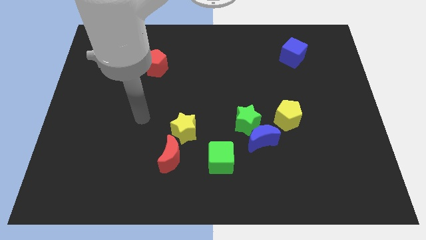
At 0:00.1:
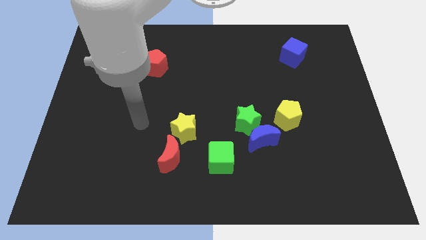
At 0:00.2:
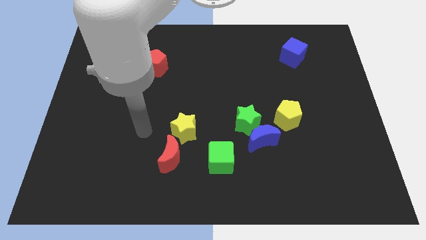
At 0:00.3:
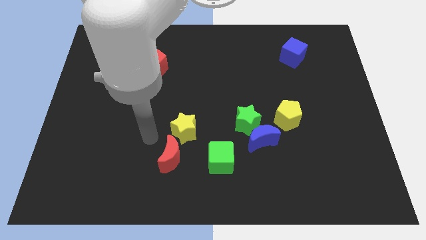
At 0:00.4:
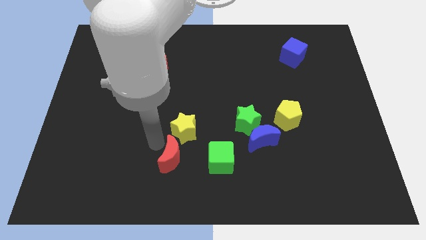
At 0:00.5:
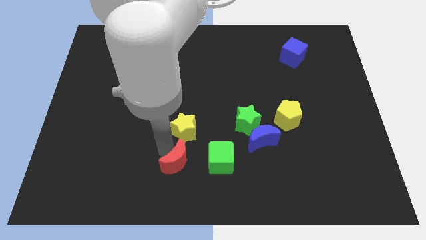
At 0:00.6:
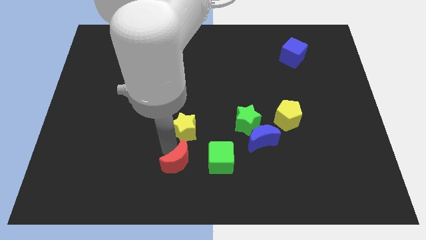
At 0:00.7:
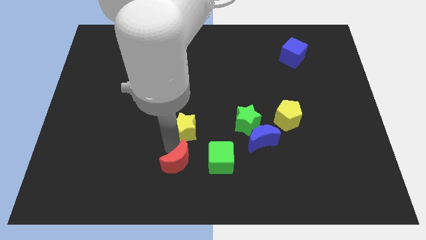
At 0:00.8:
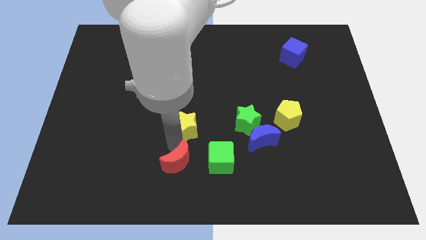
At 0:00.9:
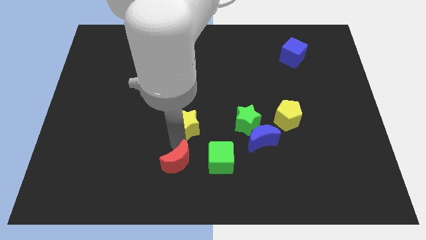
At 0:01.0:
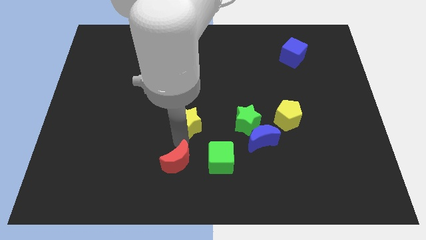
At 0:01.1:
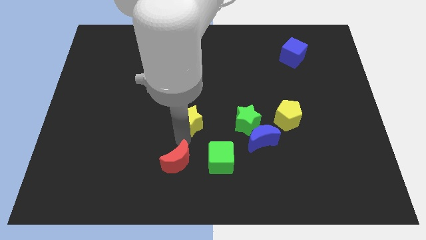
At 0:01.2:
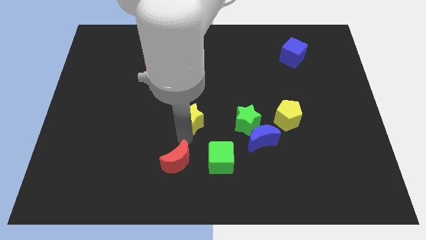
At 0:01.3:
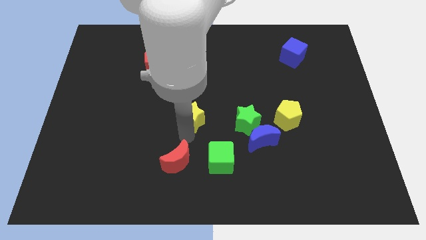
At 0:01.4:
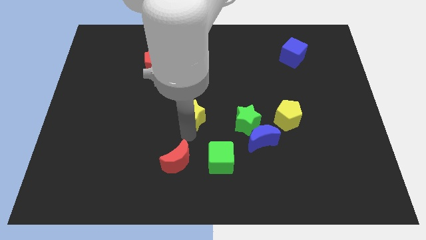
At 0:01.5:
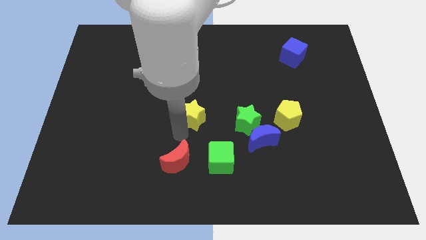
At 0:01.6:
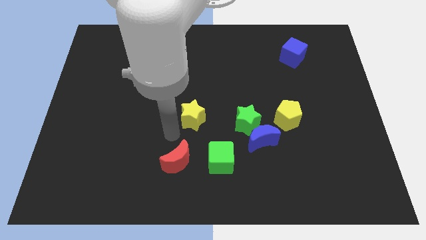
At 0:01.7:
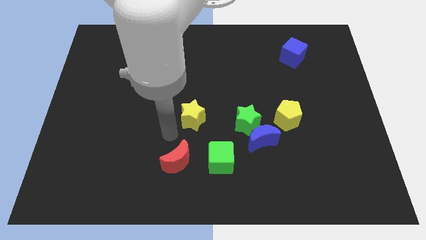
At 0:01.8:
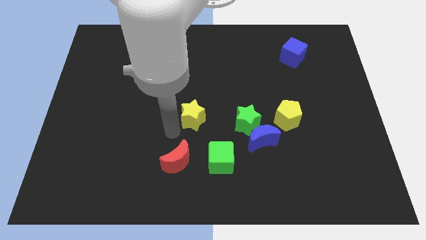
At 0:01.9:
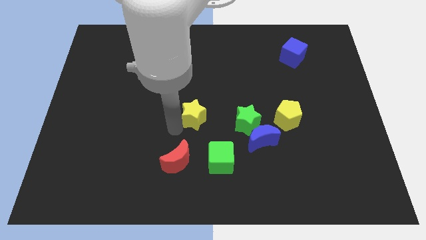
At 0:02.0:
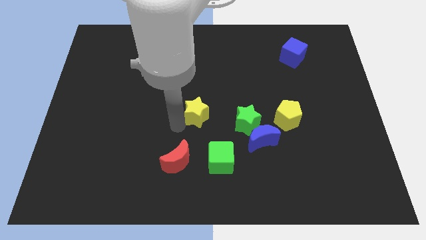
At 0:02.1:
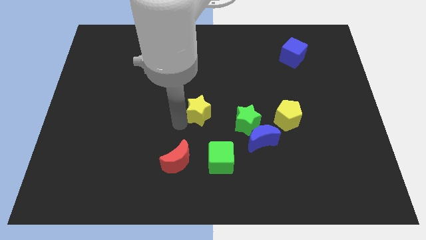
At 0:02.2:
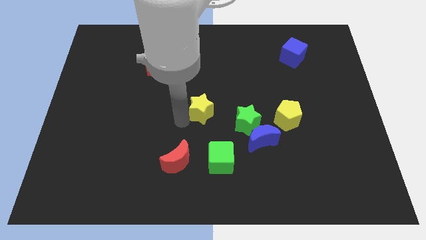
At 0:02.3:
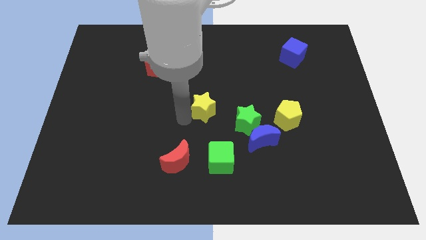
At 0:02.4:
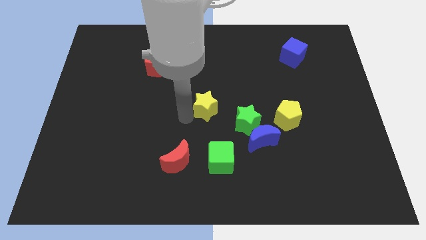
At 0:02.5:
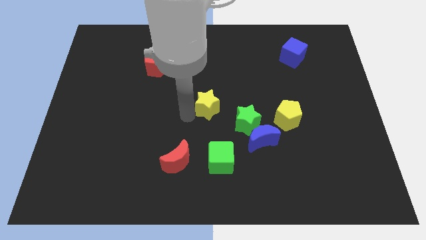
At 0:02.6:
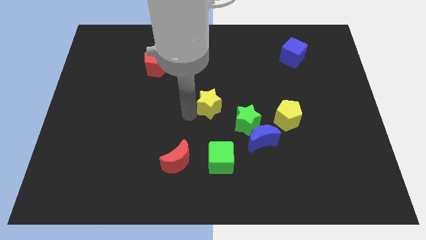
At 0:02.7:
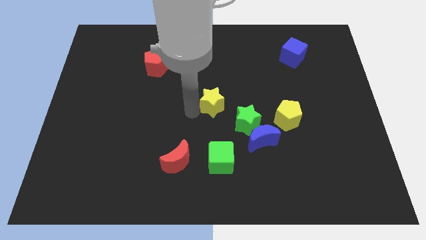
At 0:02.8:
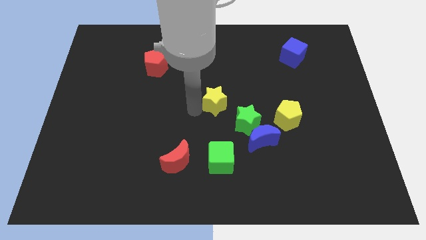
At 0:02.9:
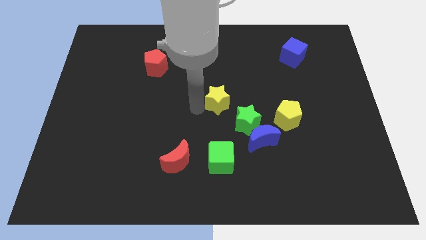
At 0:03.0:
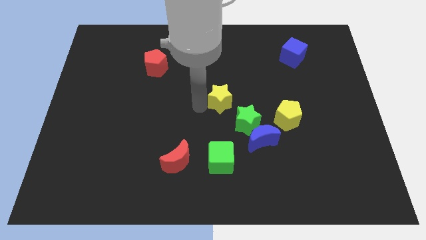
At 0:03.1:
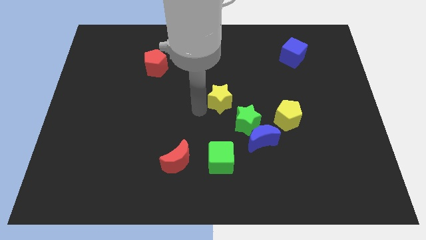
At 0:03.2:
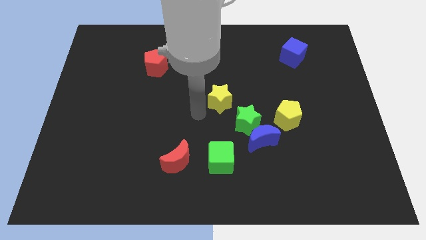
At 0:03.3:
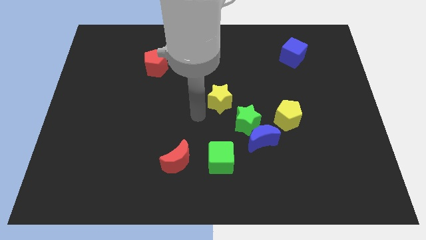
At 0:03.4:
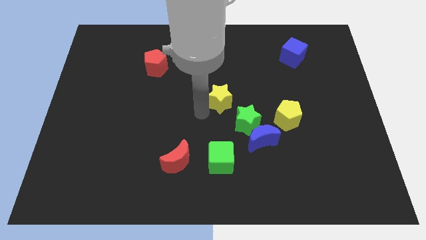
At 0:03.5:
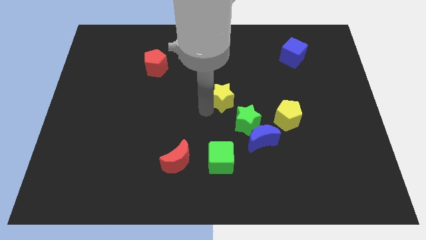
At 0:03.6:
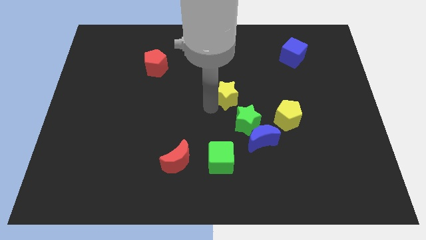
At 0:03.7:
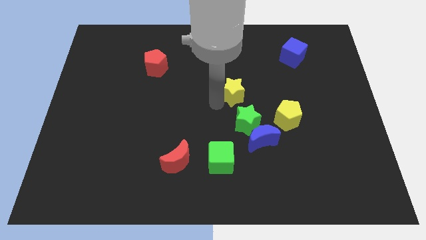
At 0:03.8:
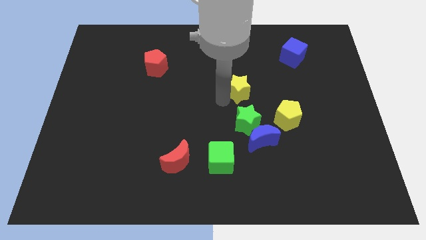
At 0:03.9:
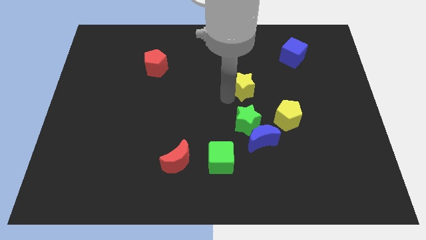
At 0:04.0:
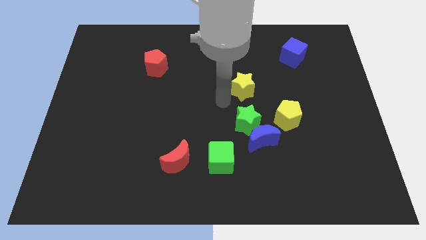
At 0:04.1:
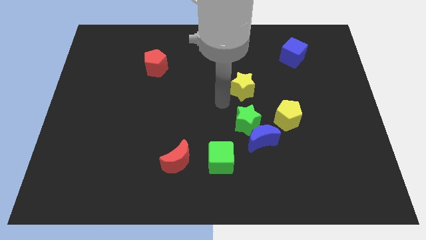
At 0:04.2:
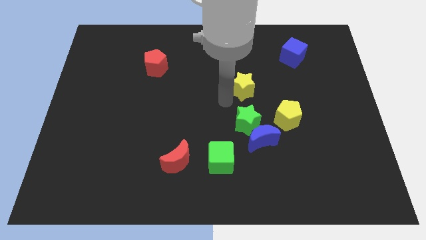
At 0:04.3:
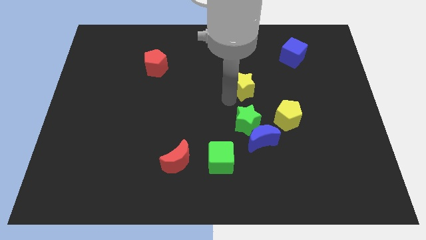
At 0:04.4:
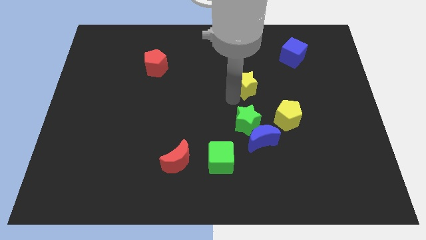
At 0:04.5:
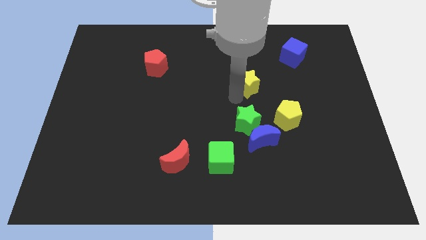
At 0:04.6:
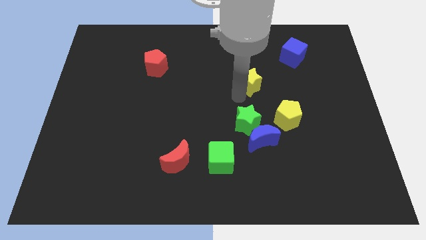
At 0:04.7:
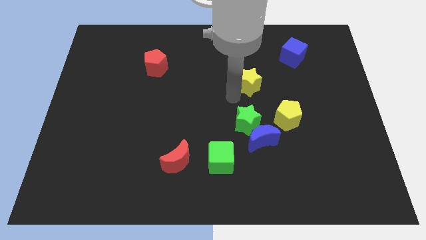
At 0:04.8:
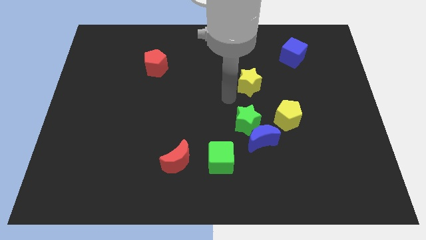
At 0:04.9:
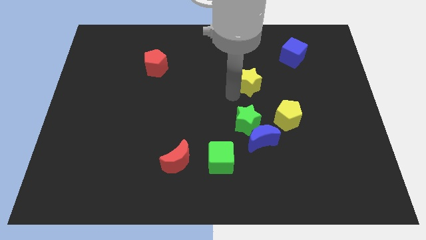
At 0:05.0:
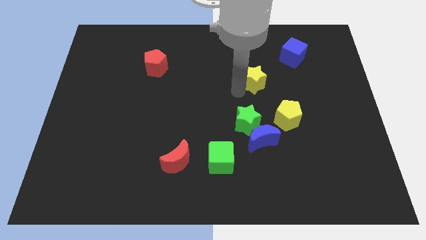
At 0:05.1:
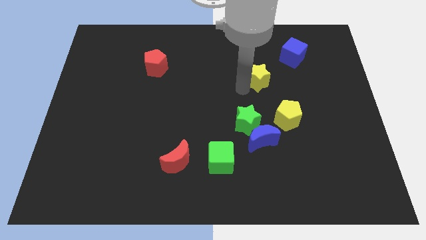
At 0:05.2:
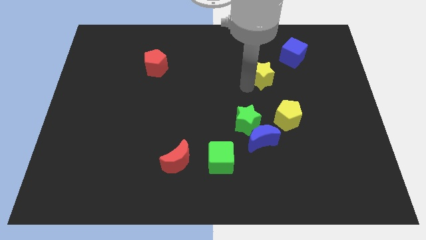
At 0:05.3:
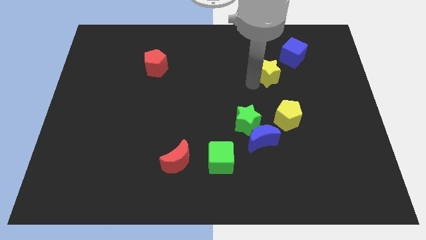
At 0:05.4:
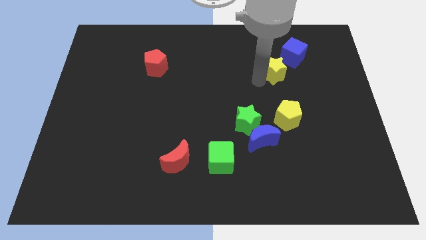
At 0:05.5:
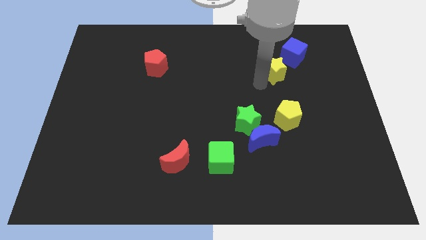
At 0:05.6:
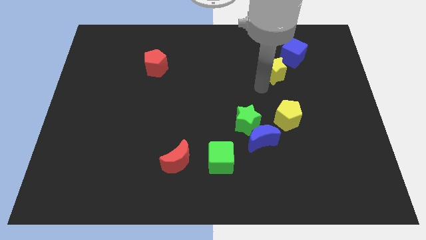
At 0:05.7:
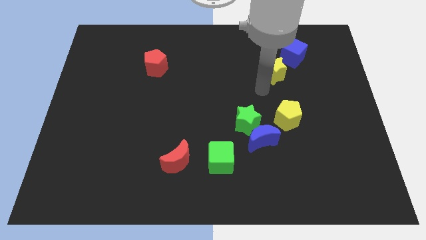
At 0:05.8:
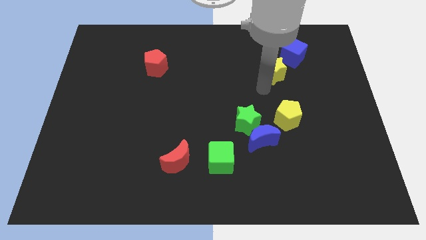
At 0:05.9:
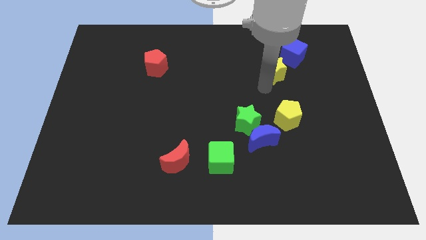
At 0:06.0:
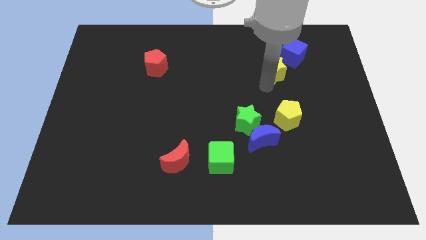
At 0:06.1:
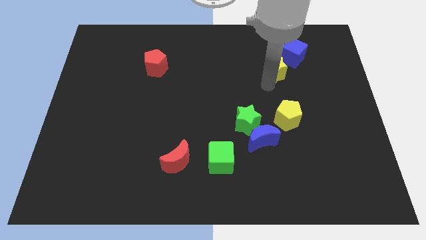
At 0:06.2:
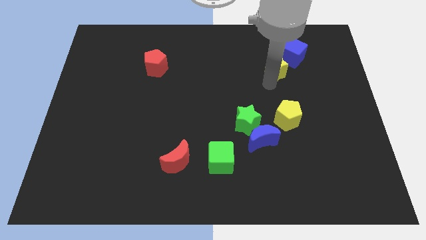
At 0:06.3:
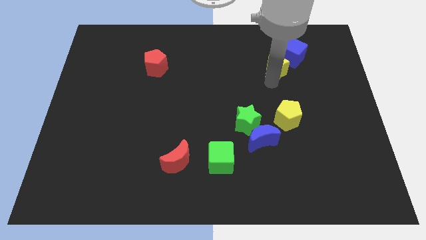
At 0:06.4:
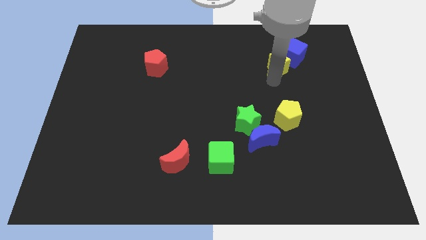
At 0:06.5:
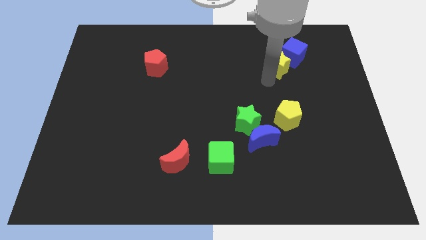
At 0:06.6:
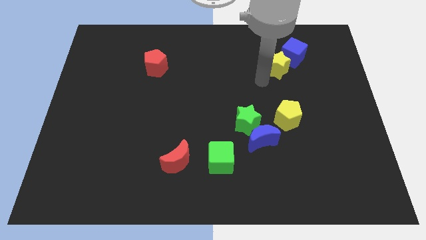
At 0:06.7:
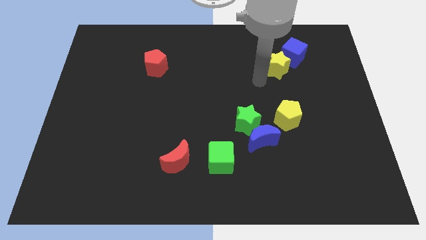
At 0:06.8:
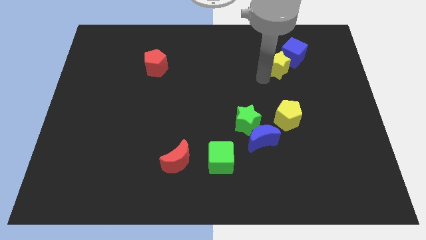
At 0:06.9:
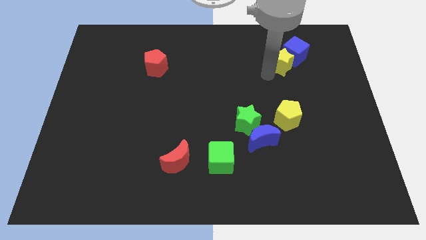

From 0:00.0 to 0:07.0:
put the yellow star towards the blue cube
